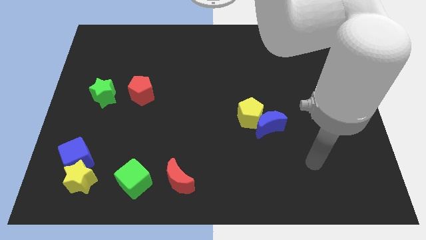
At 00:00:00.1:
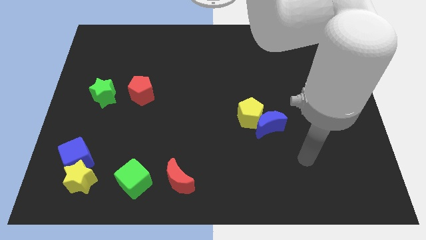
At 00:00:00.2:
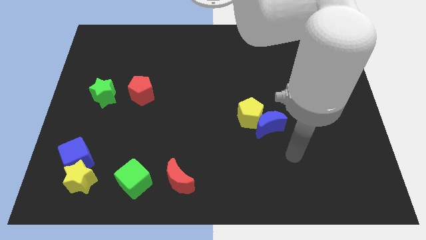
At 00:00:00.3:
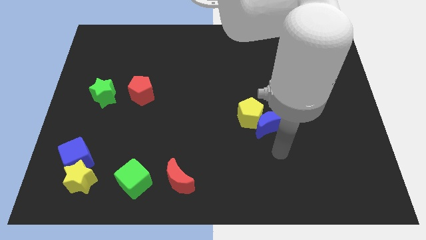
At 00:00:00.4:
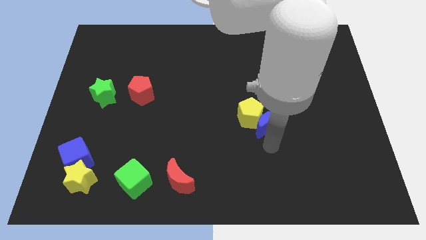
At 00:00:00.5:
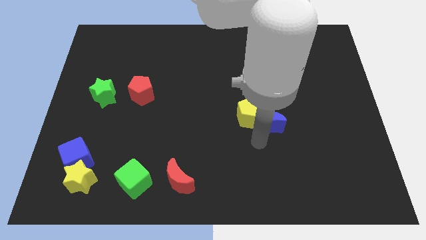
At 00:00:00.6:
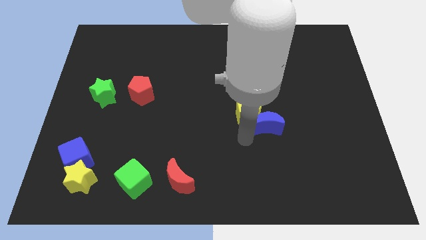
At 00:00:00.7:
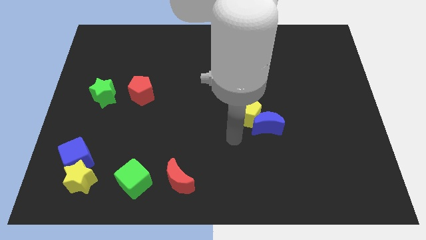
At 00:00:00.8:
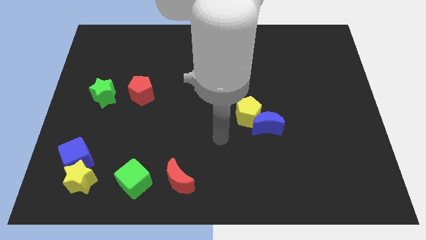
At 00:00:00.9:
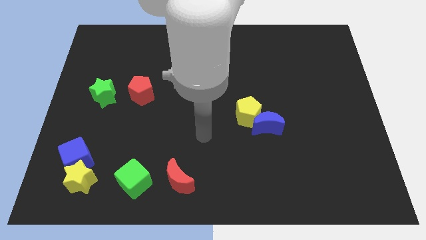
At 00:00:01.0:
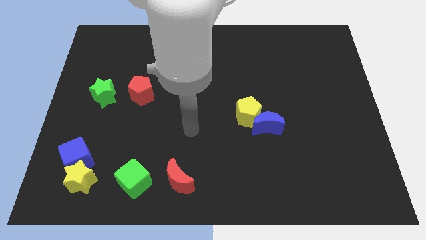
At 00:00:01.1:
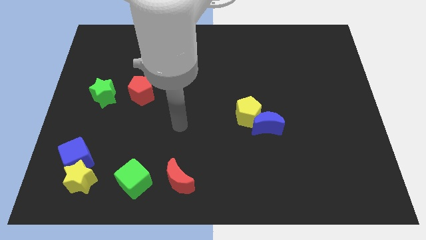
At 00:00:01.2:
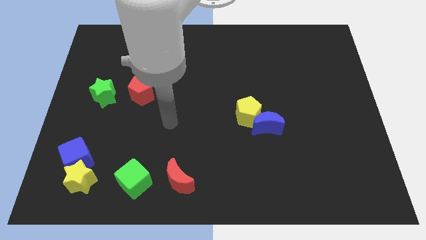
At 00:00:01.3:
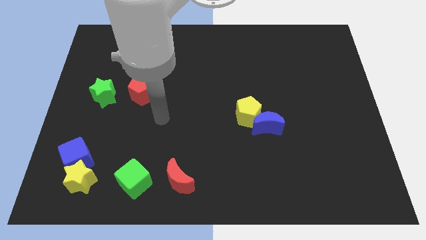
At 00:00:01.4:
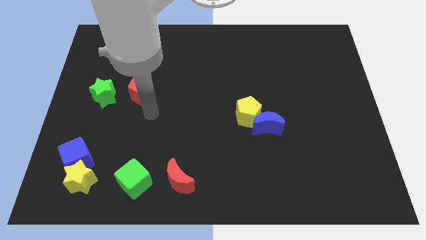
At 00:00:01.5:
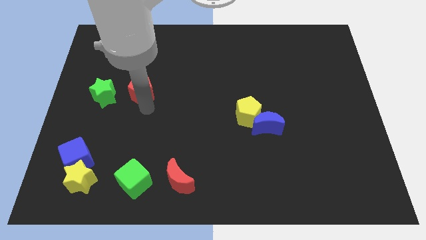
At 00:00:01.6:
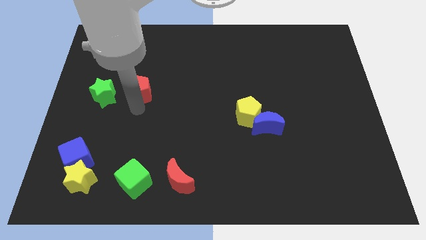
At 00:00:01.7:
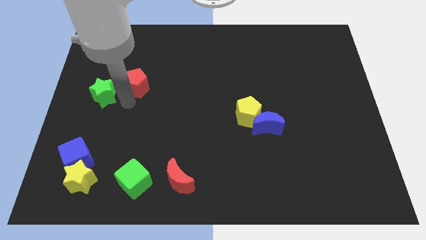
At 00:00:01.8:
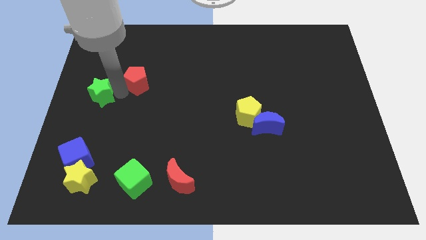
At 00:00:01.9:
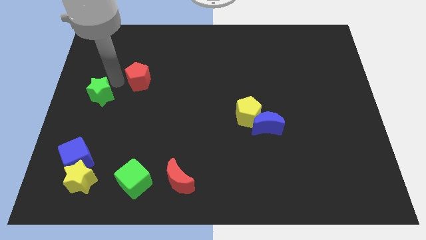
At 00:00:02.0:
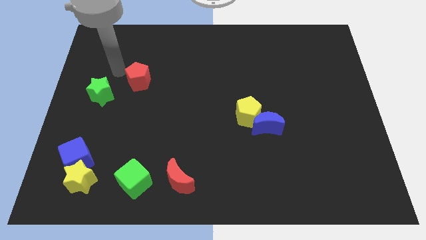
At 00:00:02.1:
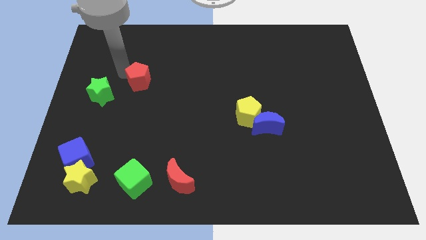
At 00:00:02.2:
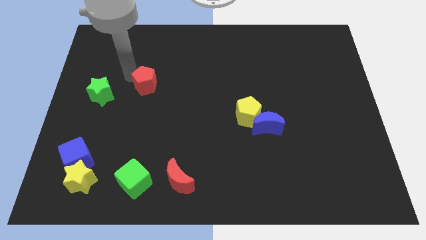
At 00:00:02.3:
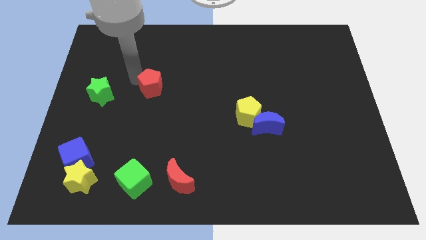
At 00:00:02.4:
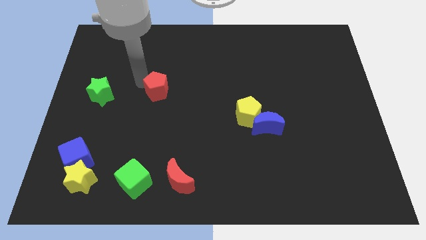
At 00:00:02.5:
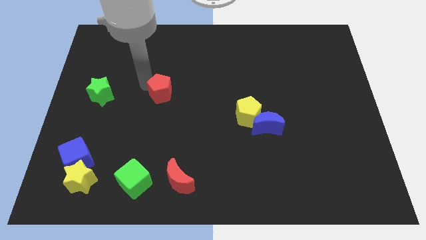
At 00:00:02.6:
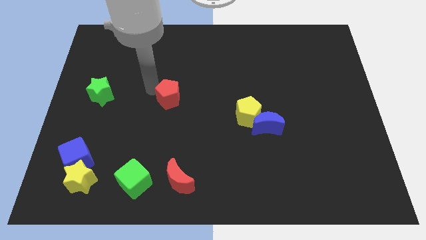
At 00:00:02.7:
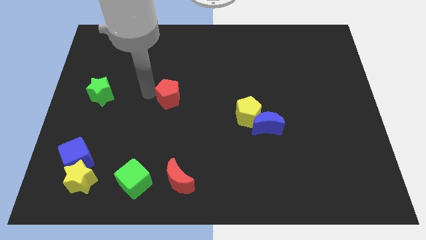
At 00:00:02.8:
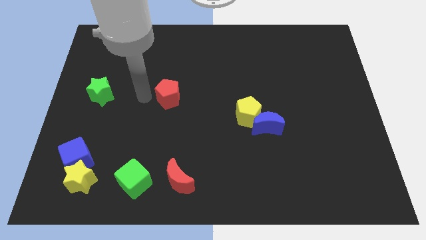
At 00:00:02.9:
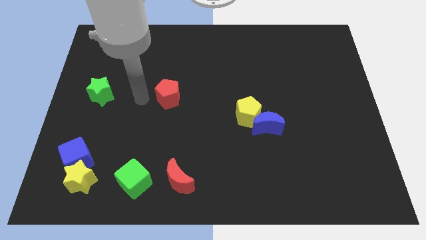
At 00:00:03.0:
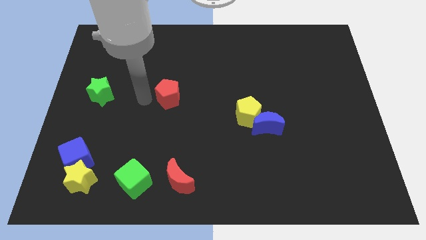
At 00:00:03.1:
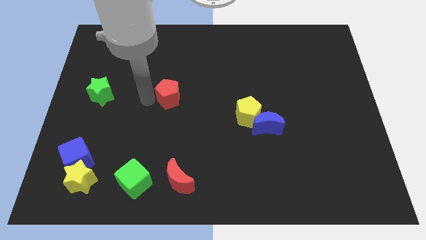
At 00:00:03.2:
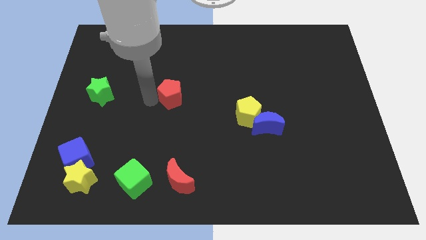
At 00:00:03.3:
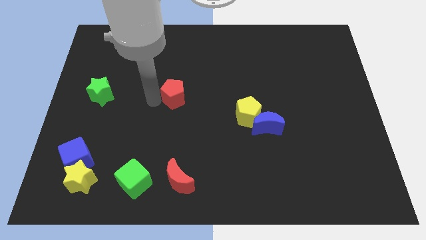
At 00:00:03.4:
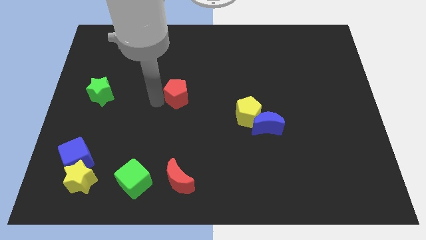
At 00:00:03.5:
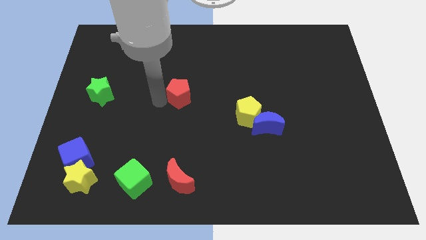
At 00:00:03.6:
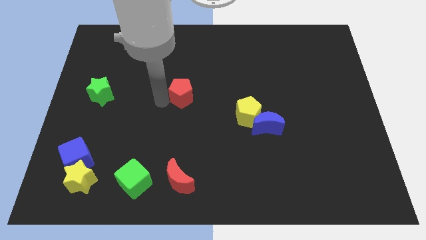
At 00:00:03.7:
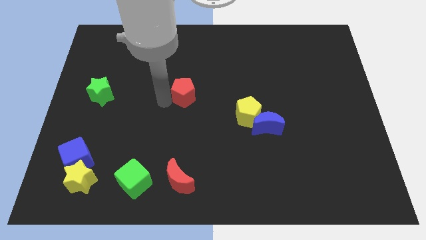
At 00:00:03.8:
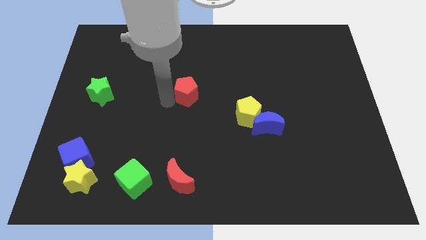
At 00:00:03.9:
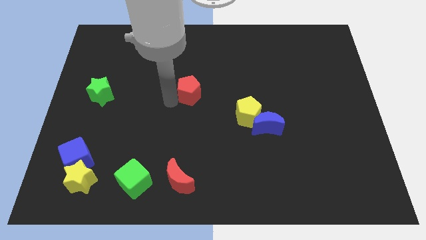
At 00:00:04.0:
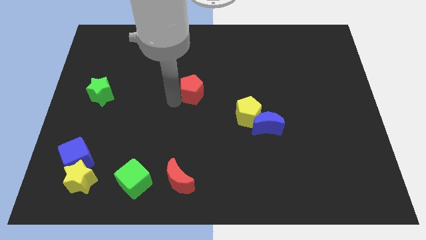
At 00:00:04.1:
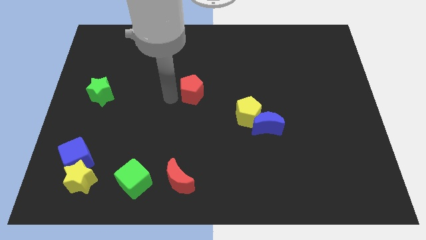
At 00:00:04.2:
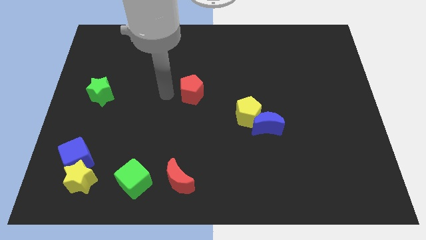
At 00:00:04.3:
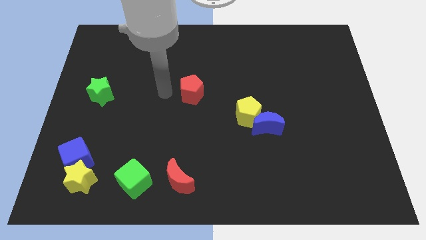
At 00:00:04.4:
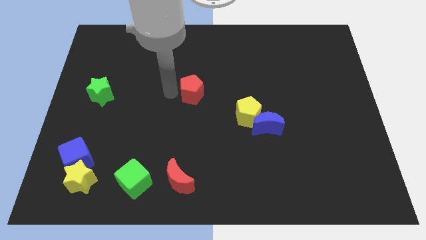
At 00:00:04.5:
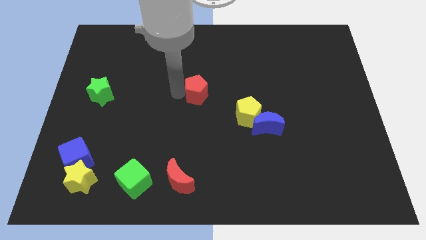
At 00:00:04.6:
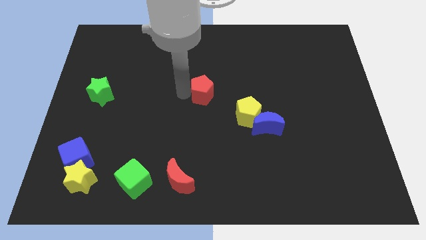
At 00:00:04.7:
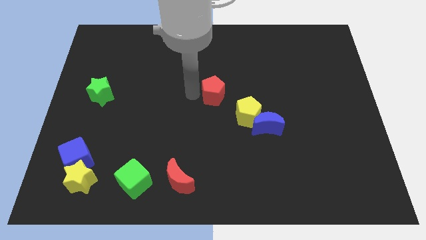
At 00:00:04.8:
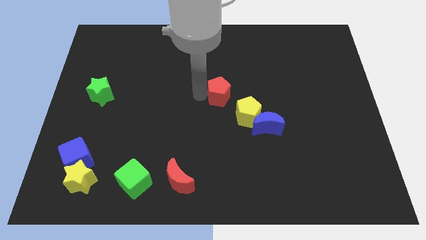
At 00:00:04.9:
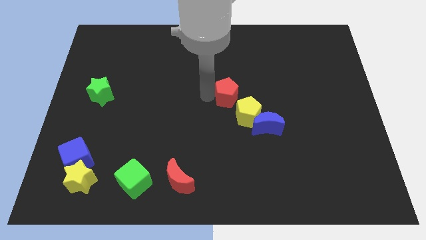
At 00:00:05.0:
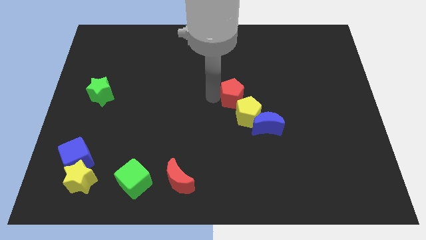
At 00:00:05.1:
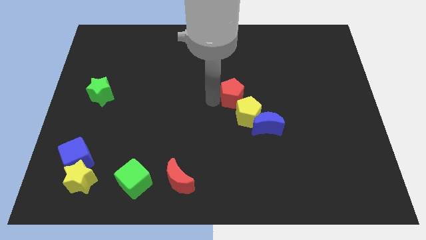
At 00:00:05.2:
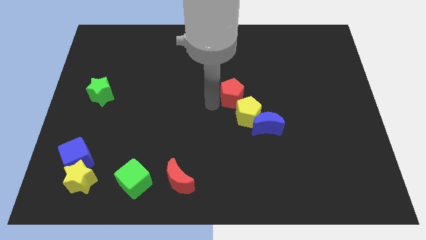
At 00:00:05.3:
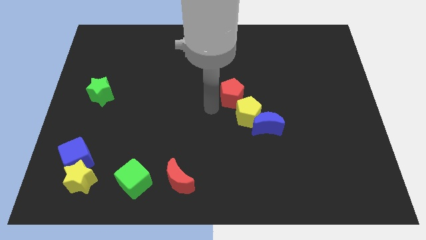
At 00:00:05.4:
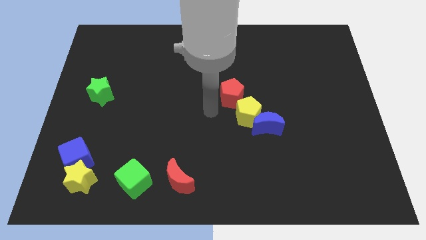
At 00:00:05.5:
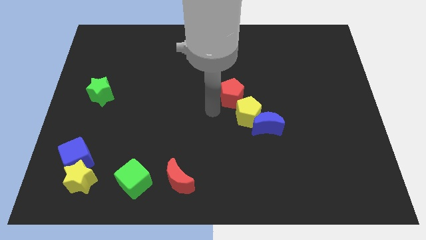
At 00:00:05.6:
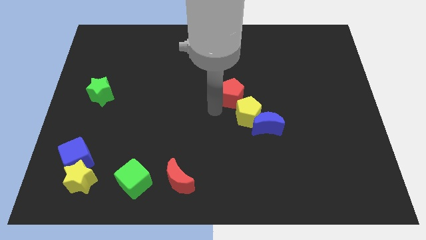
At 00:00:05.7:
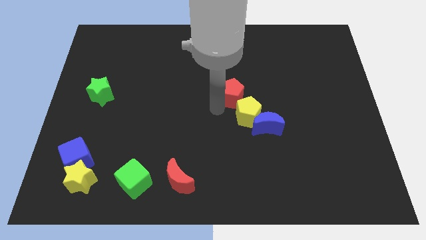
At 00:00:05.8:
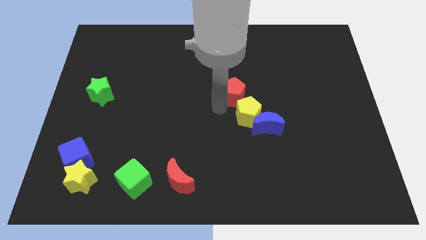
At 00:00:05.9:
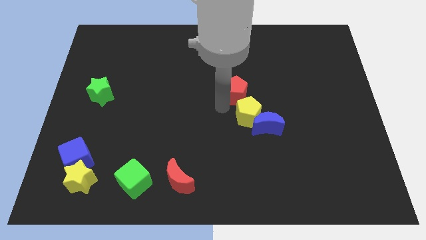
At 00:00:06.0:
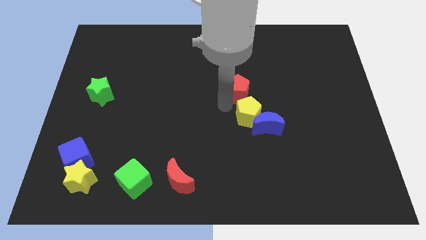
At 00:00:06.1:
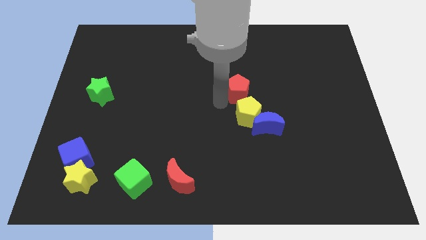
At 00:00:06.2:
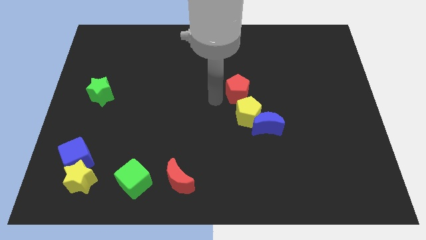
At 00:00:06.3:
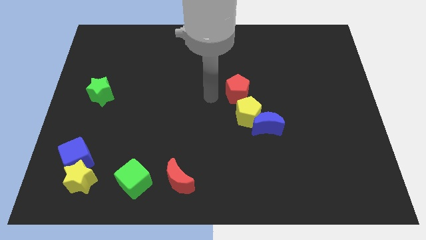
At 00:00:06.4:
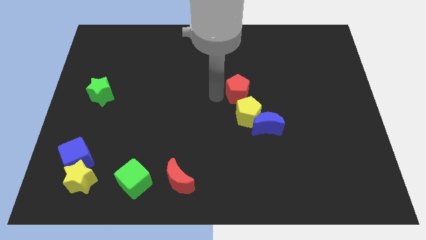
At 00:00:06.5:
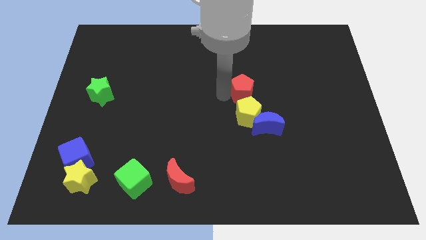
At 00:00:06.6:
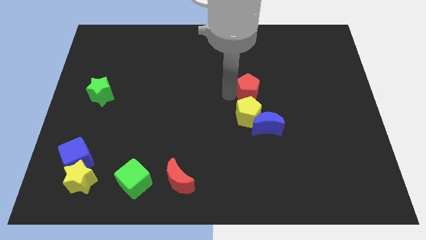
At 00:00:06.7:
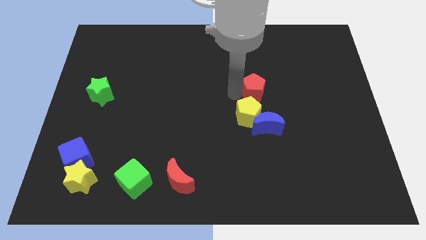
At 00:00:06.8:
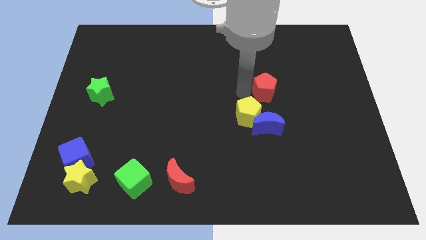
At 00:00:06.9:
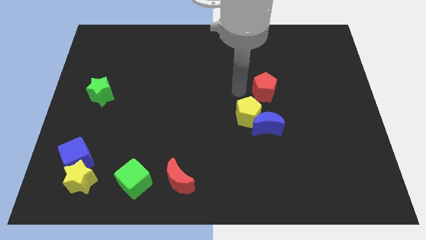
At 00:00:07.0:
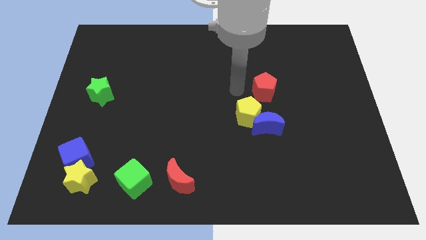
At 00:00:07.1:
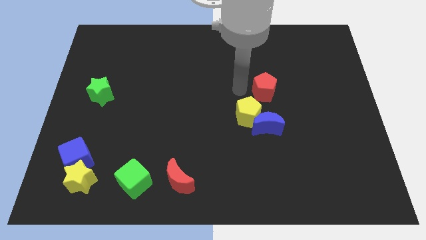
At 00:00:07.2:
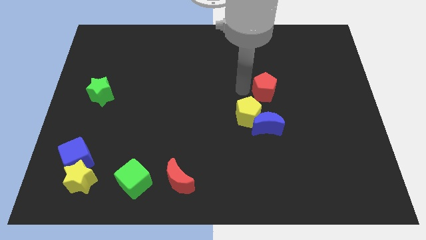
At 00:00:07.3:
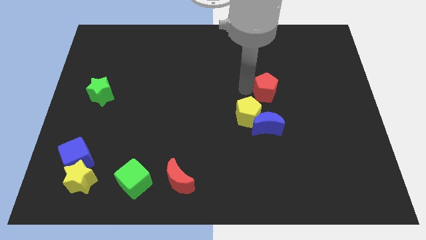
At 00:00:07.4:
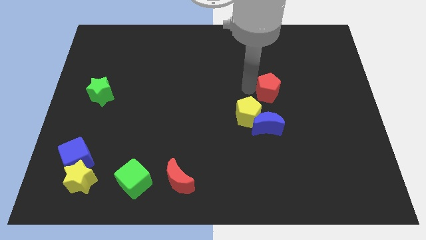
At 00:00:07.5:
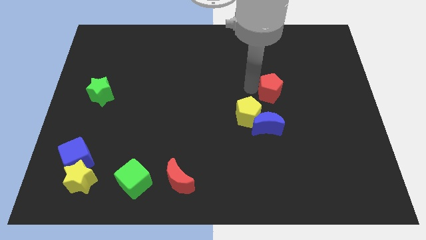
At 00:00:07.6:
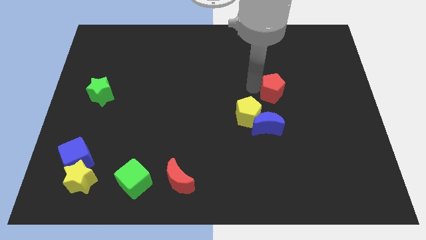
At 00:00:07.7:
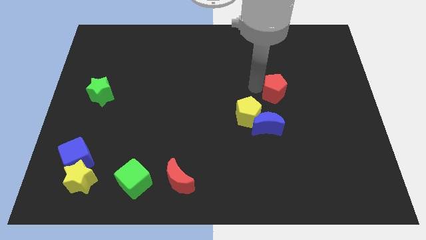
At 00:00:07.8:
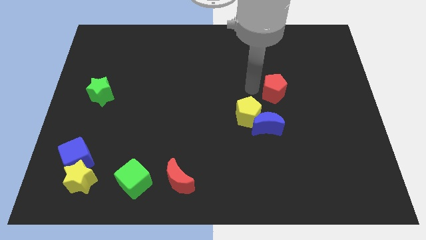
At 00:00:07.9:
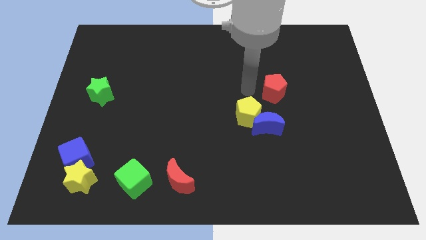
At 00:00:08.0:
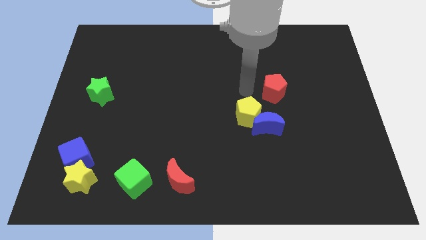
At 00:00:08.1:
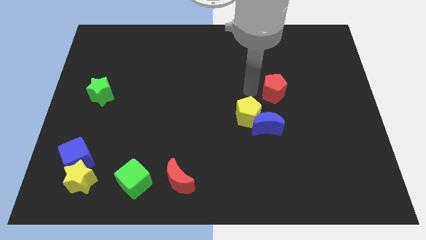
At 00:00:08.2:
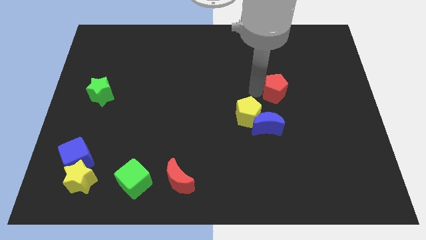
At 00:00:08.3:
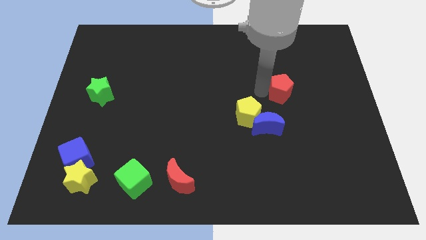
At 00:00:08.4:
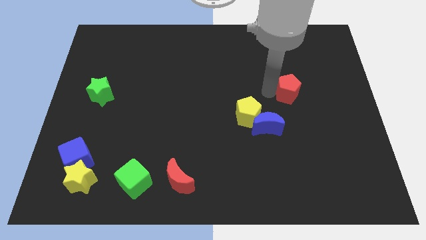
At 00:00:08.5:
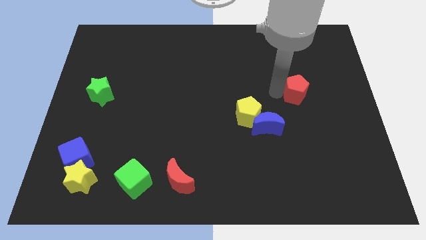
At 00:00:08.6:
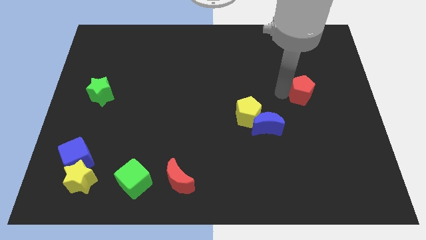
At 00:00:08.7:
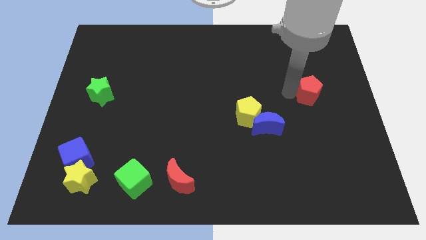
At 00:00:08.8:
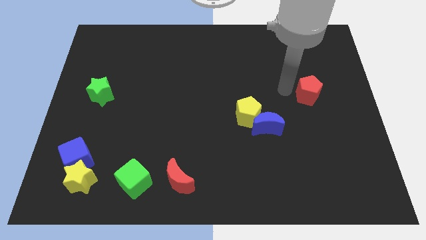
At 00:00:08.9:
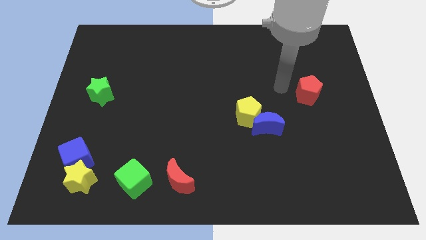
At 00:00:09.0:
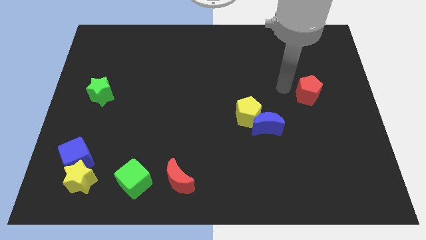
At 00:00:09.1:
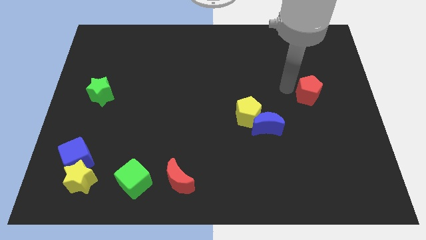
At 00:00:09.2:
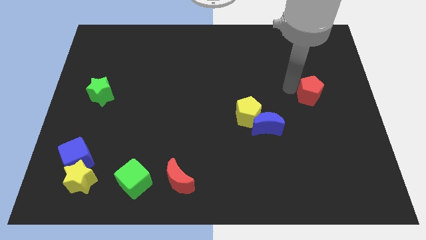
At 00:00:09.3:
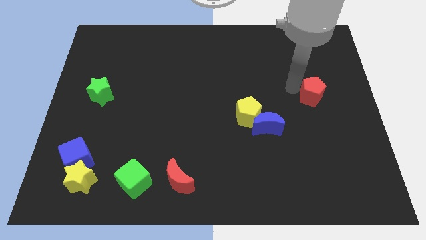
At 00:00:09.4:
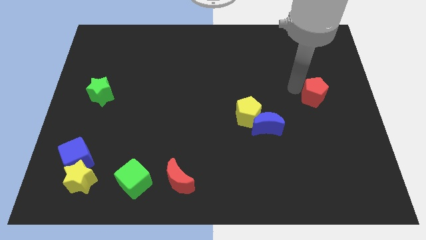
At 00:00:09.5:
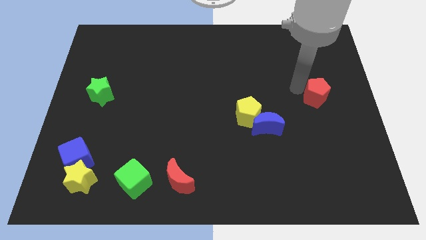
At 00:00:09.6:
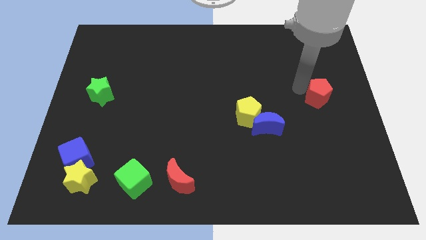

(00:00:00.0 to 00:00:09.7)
put the red pentagon to the right side
